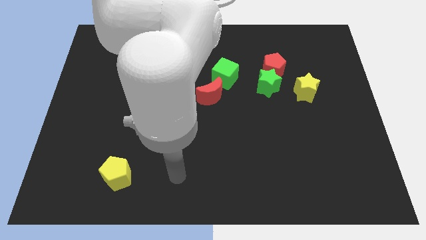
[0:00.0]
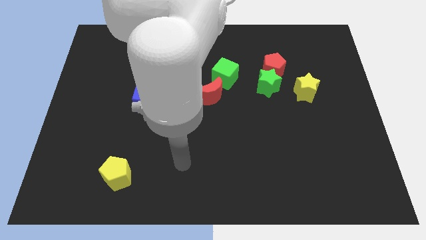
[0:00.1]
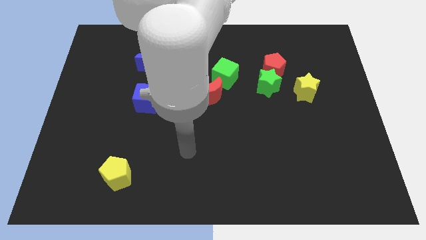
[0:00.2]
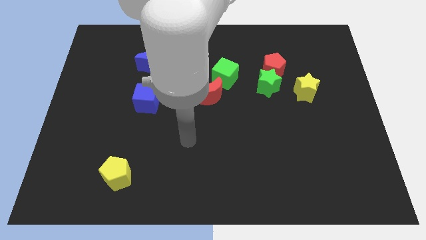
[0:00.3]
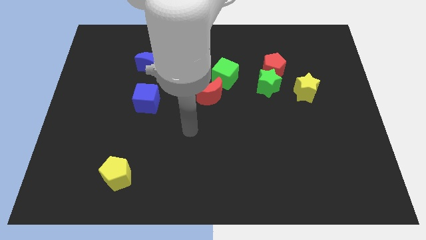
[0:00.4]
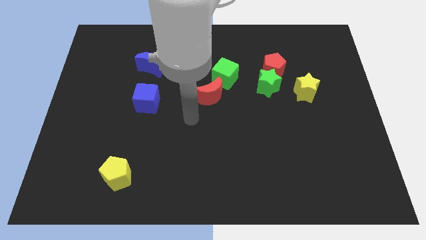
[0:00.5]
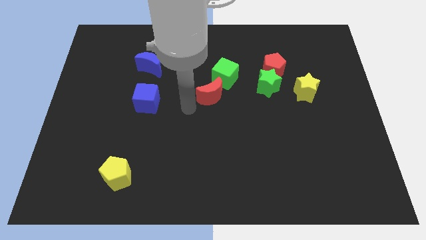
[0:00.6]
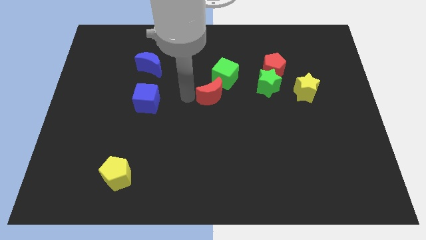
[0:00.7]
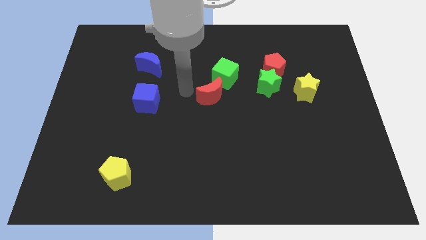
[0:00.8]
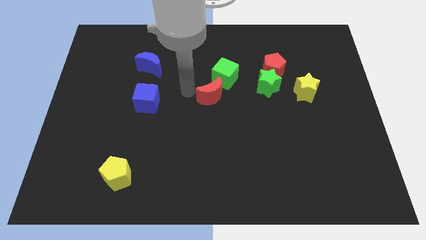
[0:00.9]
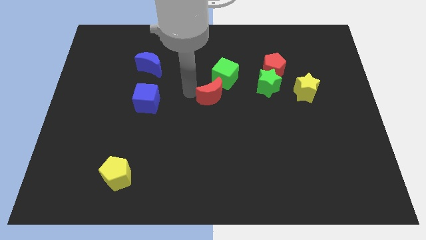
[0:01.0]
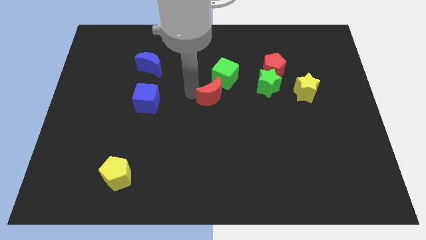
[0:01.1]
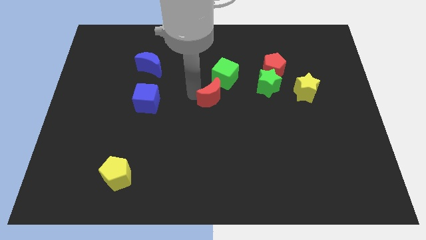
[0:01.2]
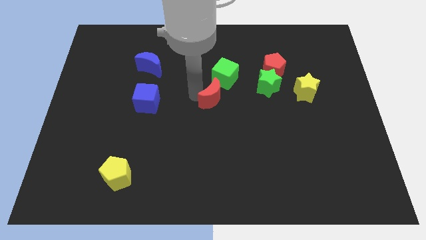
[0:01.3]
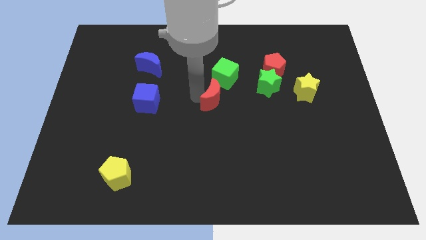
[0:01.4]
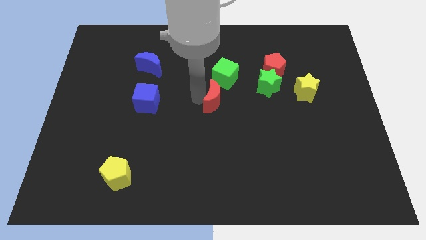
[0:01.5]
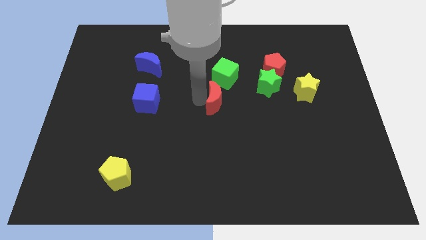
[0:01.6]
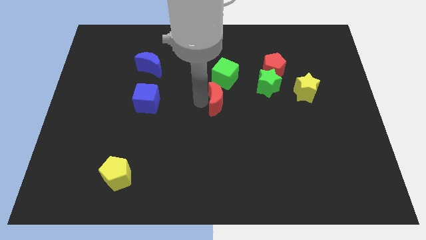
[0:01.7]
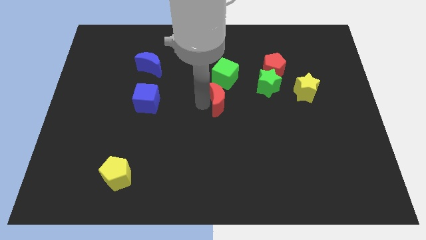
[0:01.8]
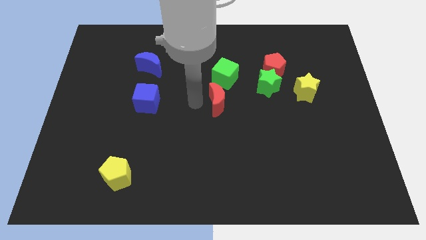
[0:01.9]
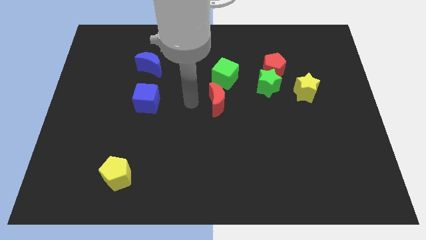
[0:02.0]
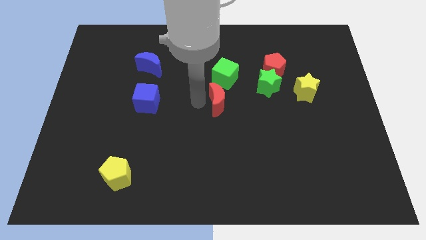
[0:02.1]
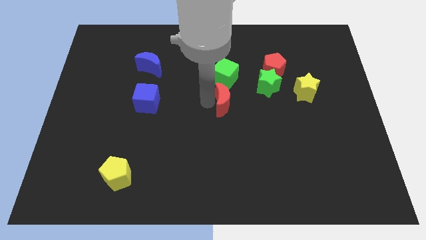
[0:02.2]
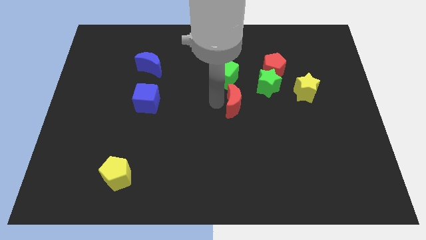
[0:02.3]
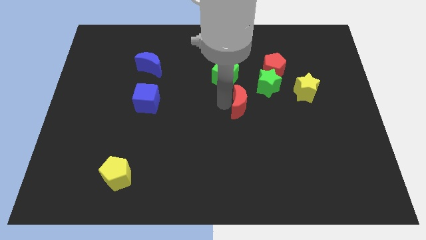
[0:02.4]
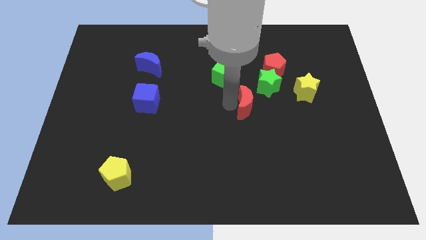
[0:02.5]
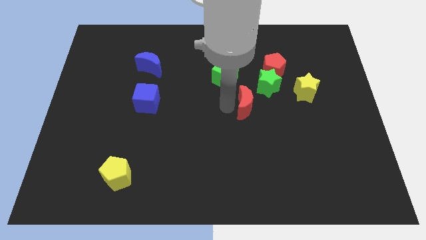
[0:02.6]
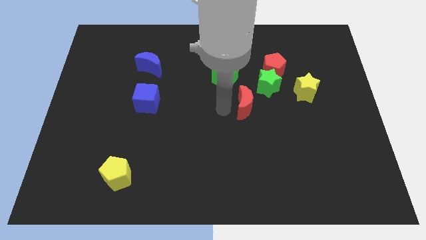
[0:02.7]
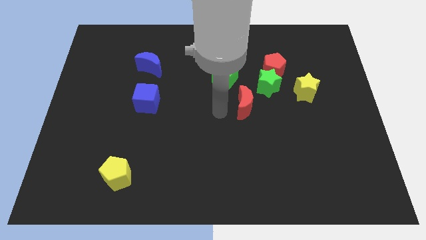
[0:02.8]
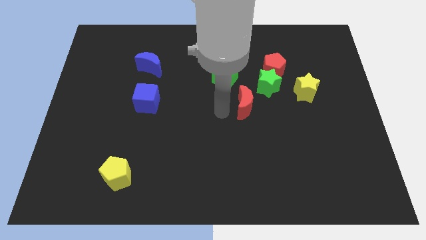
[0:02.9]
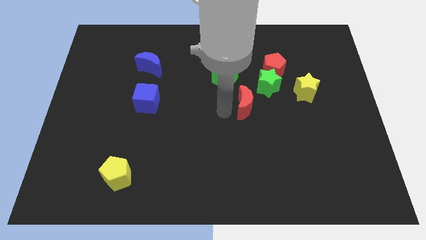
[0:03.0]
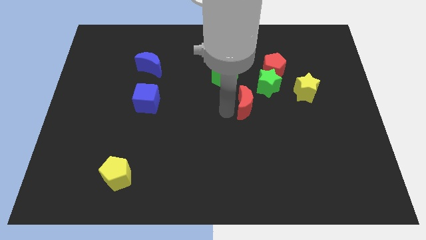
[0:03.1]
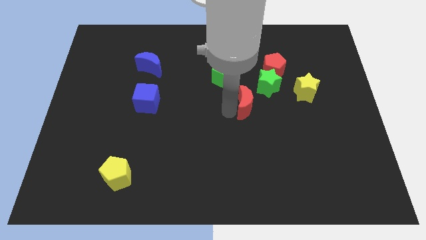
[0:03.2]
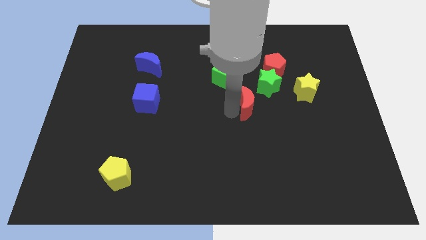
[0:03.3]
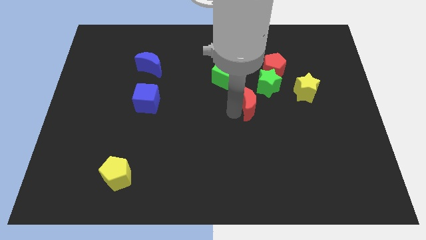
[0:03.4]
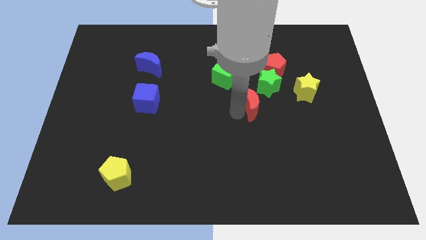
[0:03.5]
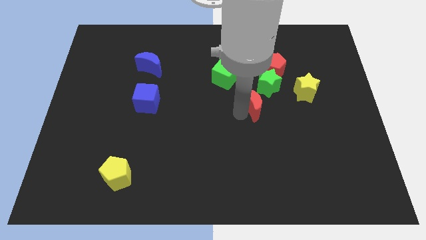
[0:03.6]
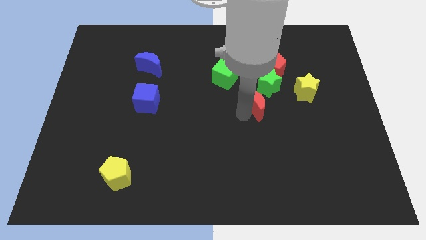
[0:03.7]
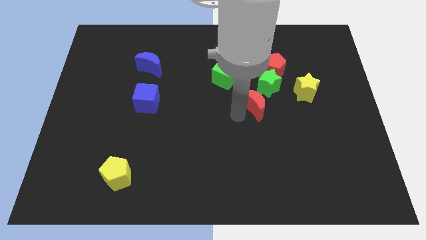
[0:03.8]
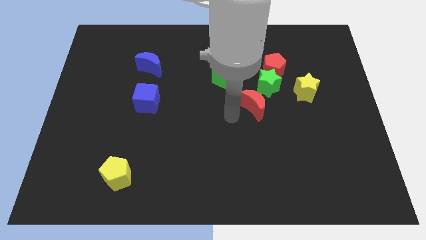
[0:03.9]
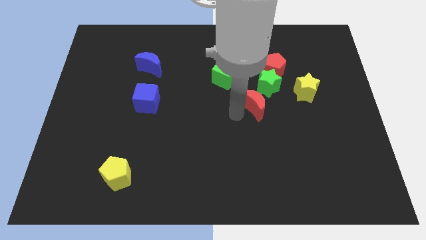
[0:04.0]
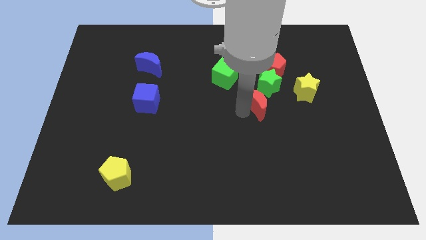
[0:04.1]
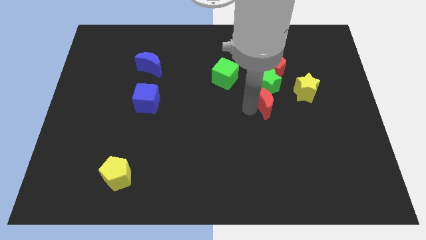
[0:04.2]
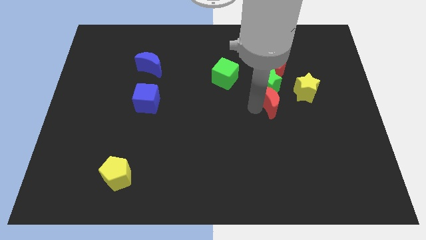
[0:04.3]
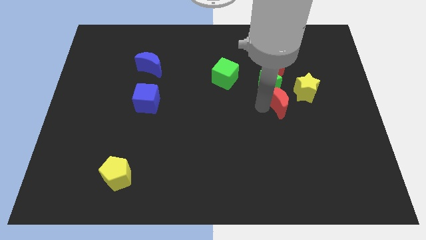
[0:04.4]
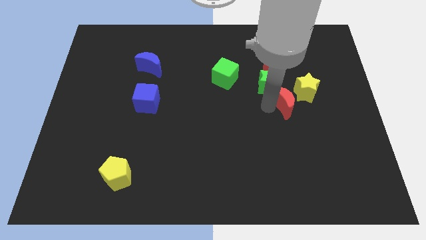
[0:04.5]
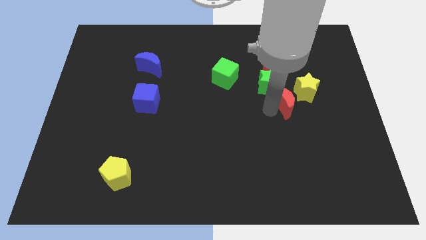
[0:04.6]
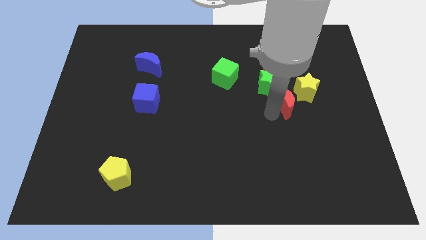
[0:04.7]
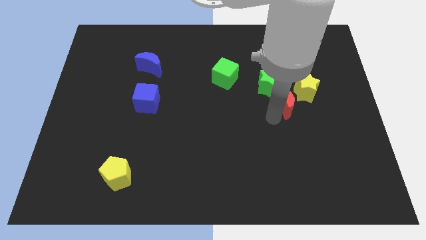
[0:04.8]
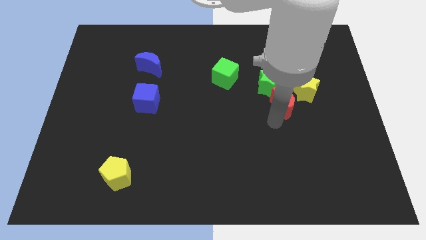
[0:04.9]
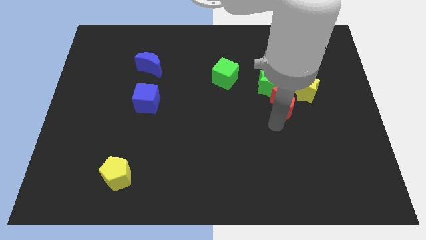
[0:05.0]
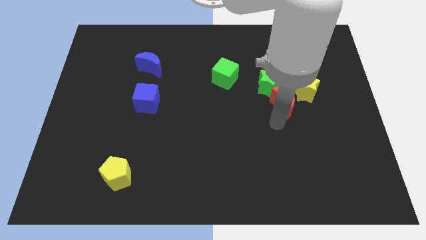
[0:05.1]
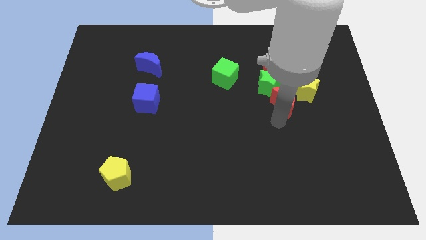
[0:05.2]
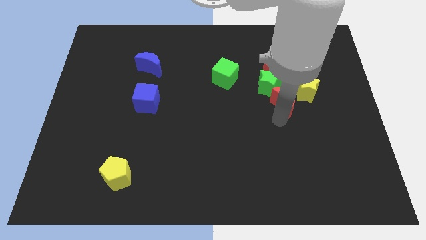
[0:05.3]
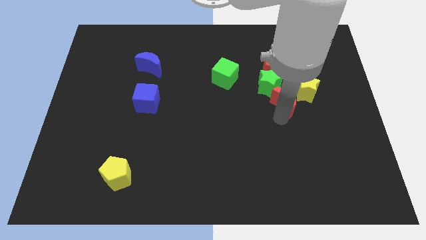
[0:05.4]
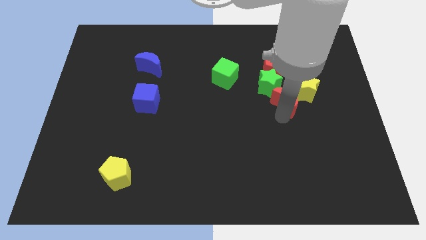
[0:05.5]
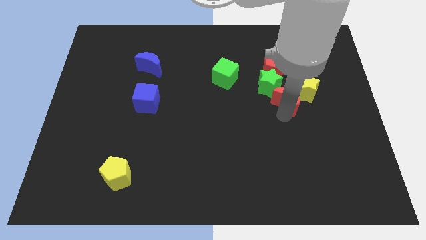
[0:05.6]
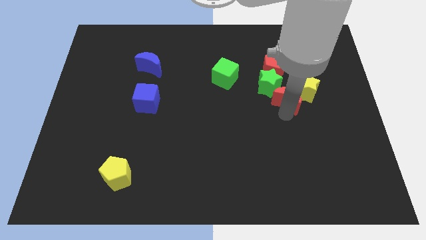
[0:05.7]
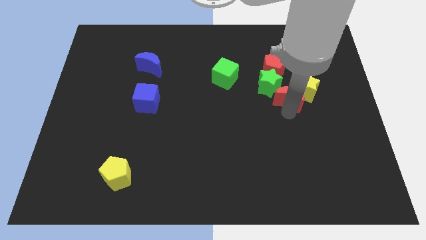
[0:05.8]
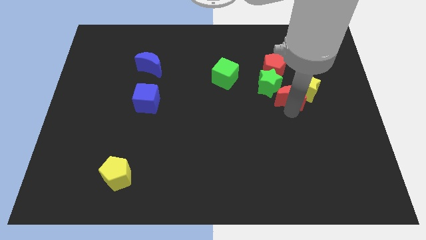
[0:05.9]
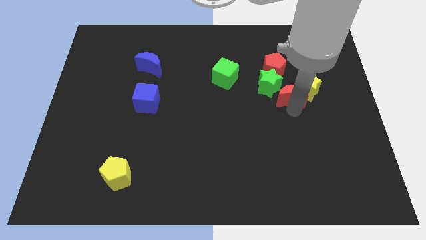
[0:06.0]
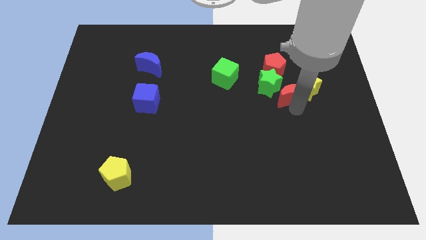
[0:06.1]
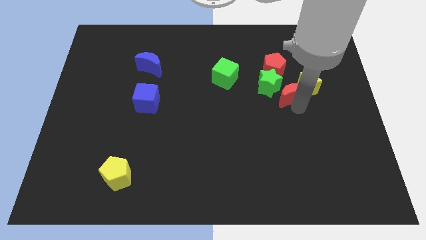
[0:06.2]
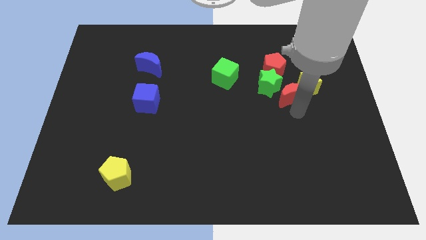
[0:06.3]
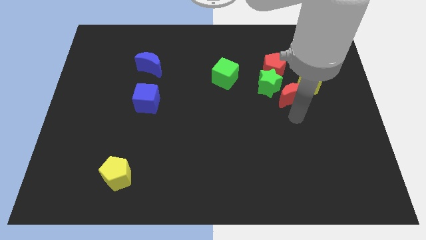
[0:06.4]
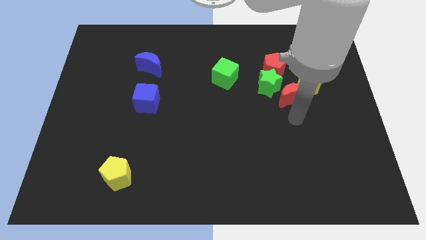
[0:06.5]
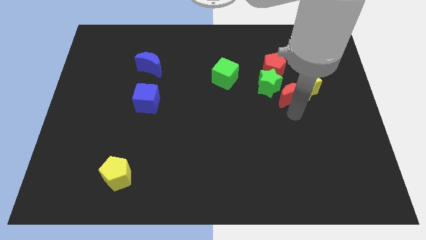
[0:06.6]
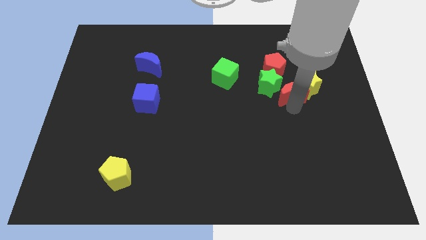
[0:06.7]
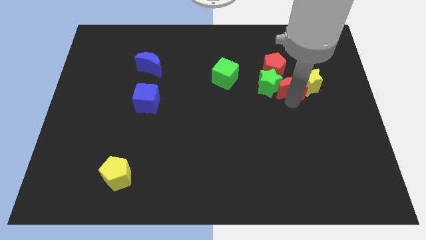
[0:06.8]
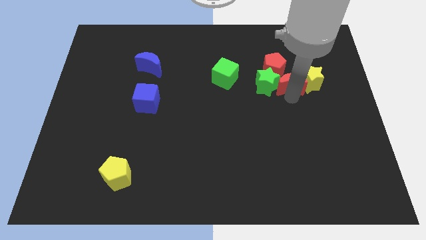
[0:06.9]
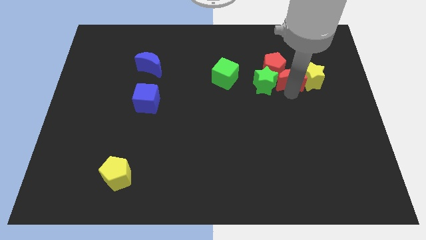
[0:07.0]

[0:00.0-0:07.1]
move the red moon just right of the red pentagon
